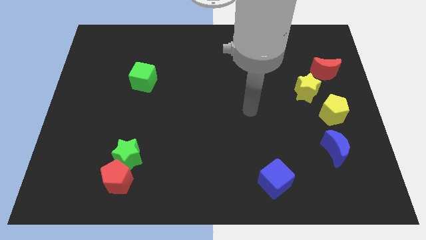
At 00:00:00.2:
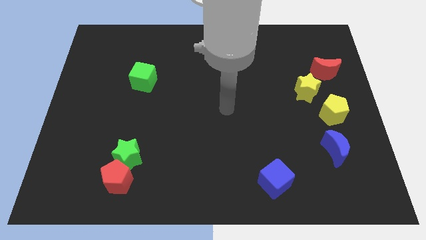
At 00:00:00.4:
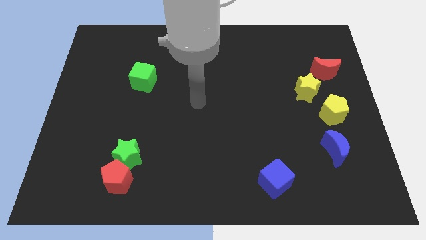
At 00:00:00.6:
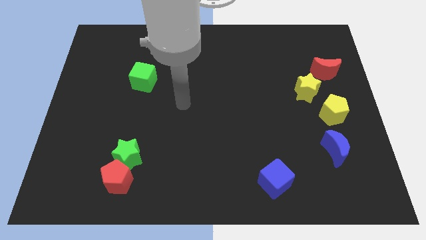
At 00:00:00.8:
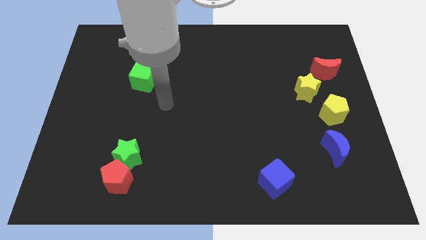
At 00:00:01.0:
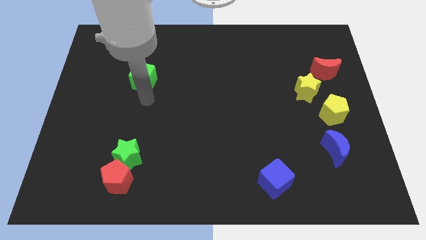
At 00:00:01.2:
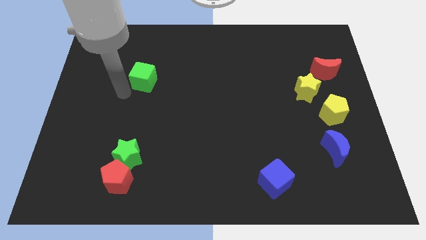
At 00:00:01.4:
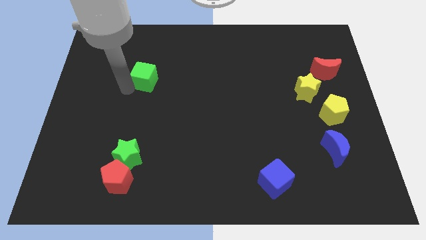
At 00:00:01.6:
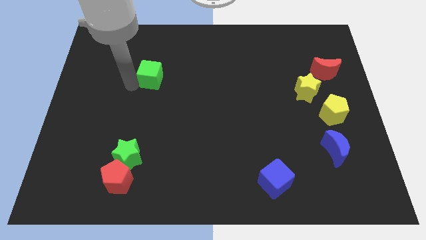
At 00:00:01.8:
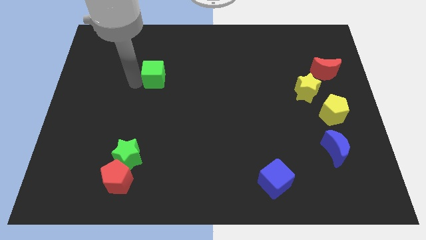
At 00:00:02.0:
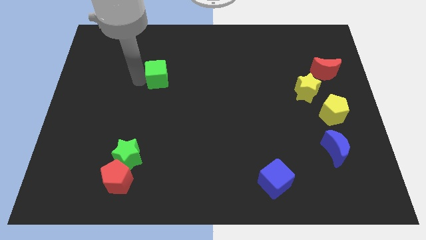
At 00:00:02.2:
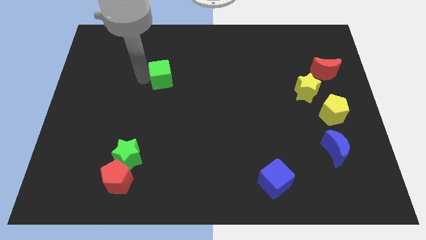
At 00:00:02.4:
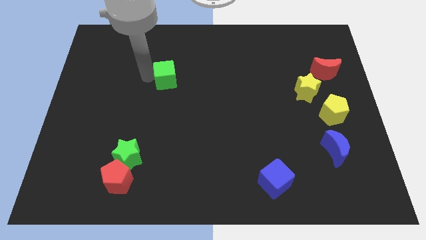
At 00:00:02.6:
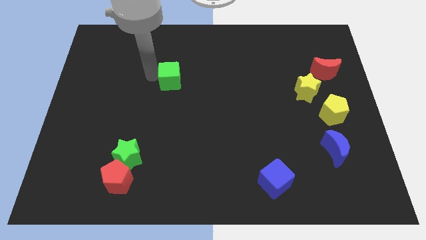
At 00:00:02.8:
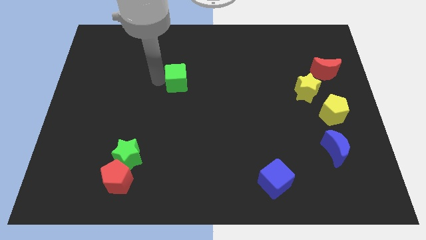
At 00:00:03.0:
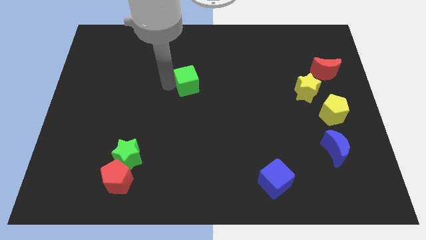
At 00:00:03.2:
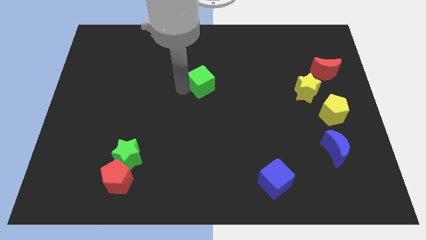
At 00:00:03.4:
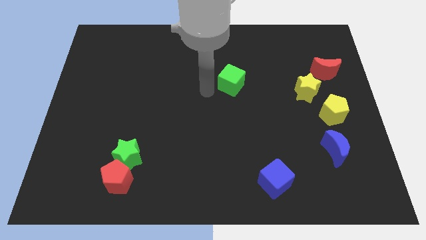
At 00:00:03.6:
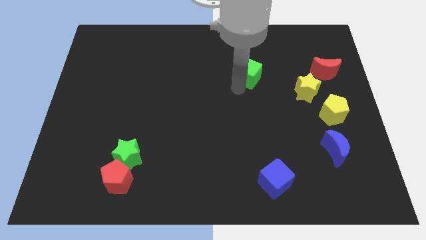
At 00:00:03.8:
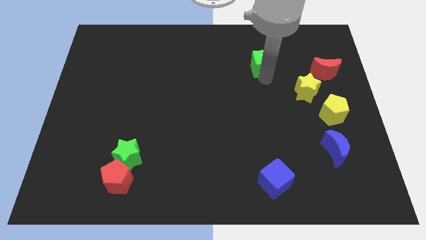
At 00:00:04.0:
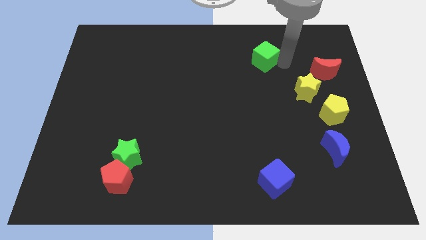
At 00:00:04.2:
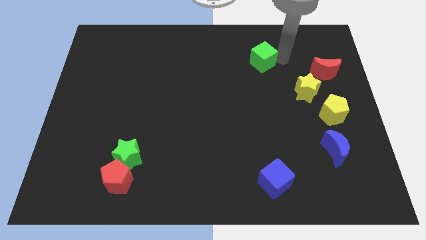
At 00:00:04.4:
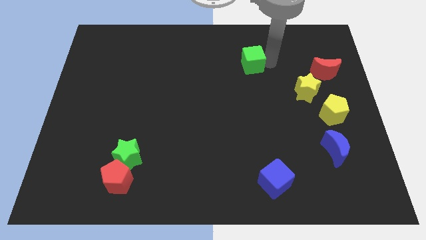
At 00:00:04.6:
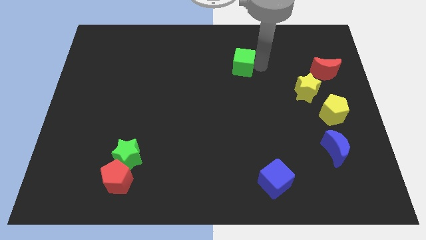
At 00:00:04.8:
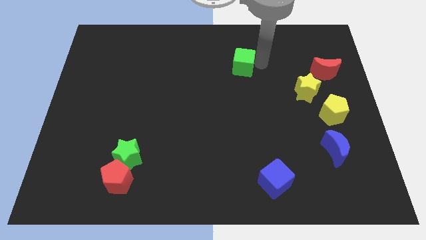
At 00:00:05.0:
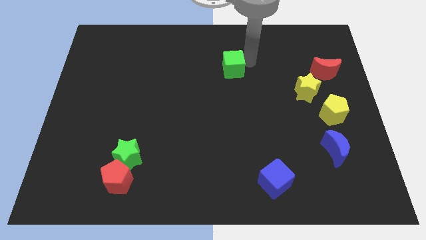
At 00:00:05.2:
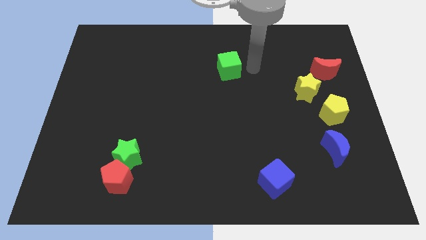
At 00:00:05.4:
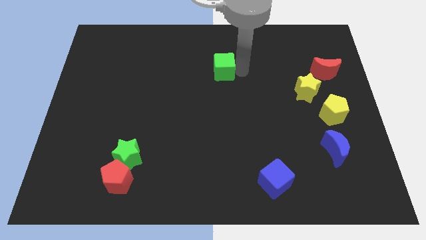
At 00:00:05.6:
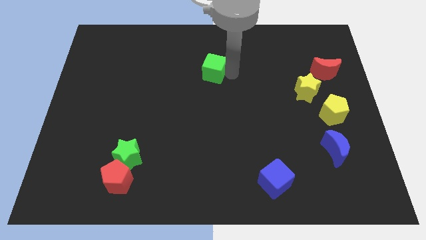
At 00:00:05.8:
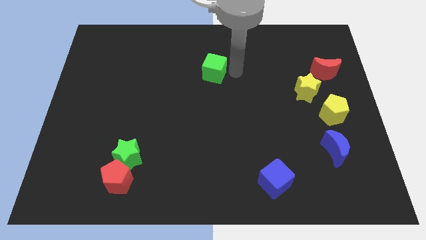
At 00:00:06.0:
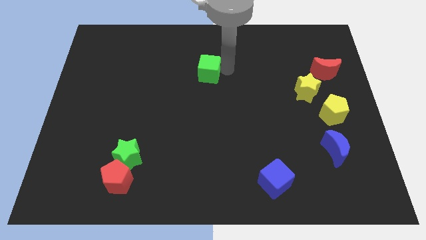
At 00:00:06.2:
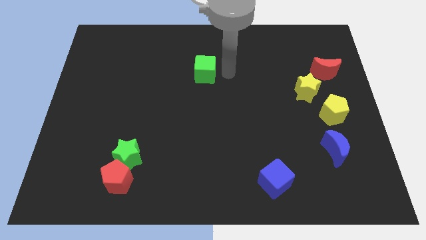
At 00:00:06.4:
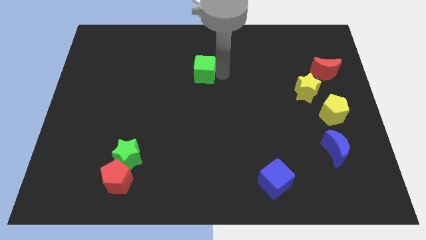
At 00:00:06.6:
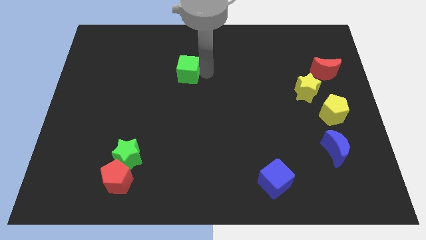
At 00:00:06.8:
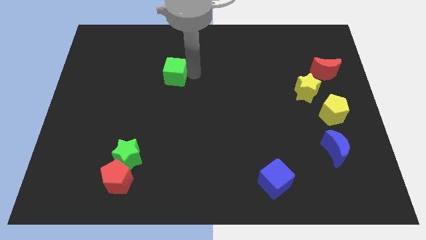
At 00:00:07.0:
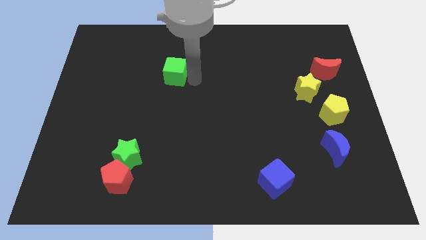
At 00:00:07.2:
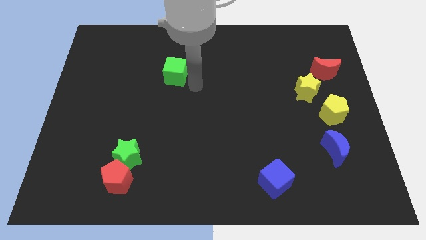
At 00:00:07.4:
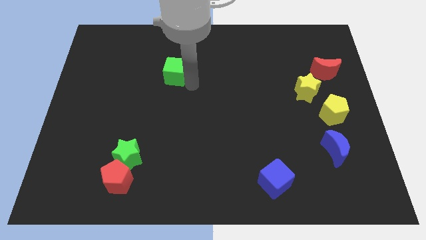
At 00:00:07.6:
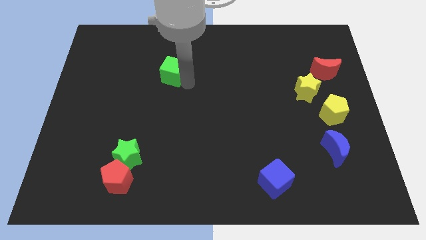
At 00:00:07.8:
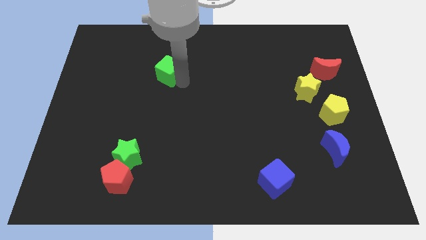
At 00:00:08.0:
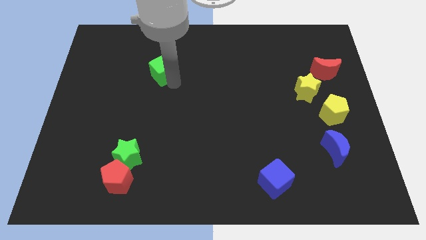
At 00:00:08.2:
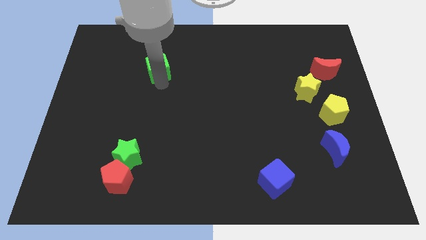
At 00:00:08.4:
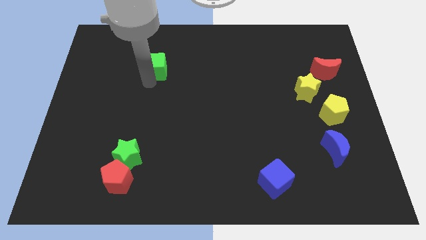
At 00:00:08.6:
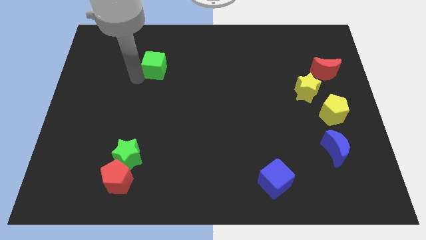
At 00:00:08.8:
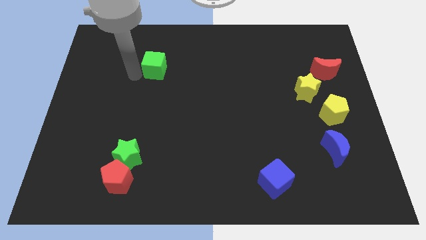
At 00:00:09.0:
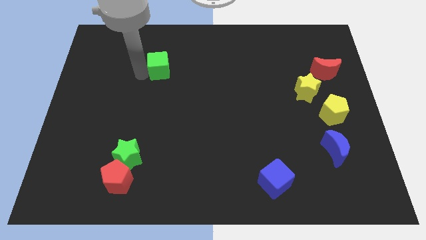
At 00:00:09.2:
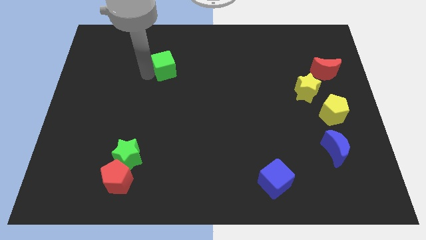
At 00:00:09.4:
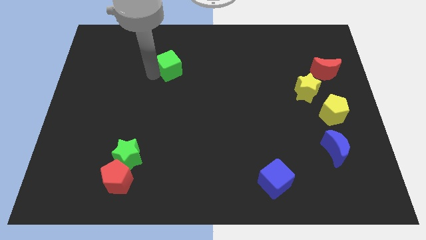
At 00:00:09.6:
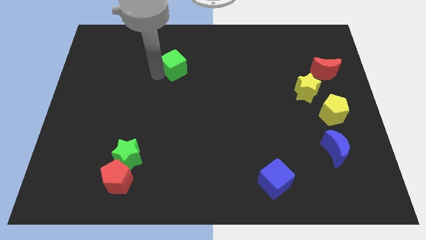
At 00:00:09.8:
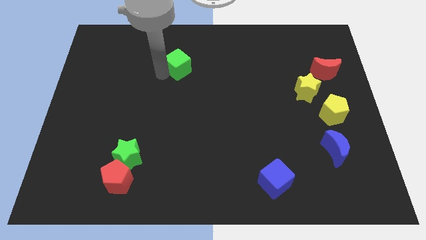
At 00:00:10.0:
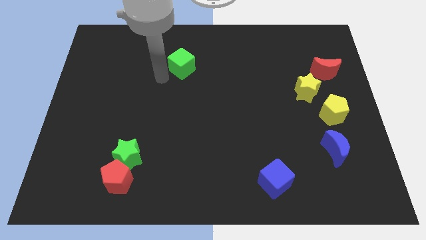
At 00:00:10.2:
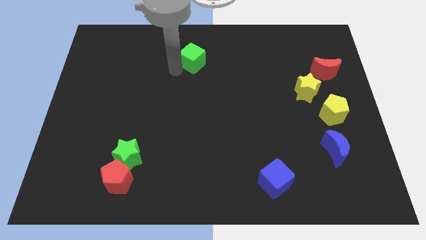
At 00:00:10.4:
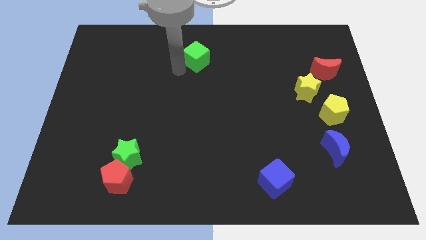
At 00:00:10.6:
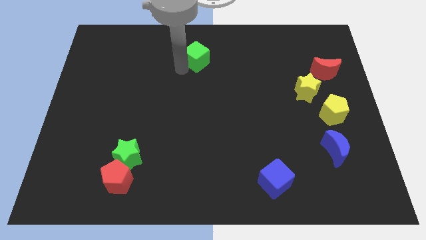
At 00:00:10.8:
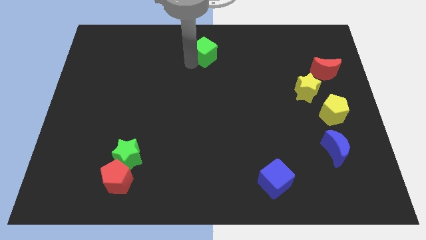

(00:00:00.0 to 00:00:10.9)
push the green cube to the towards your base

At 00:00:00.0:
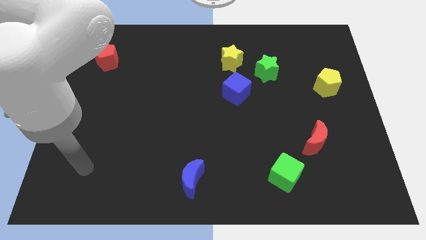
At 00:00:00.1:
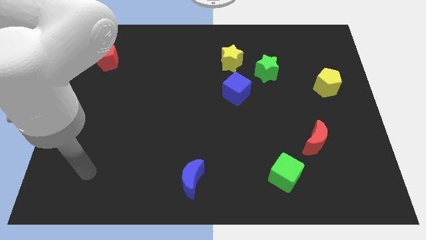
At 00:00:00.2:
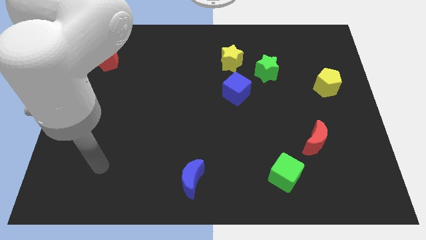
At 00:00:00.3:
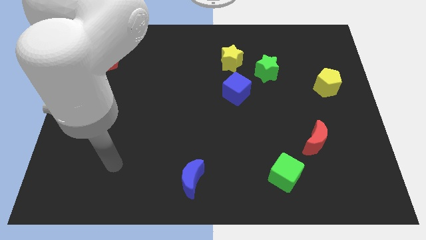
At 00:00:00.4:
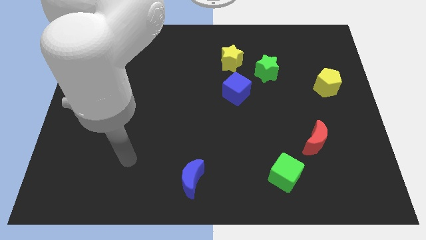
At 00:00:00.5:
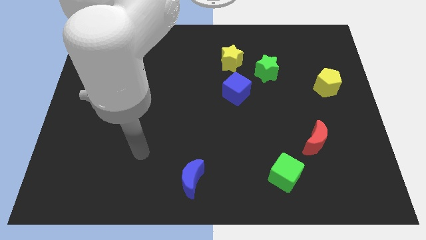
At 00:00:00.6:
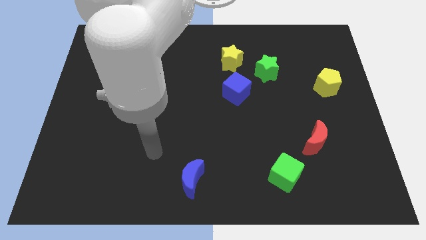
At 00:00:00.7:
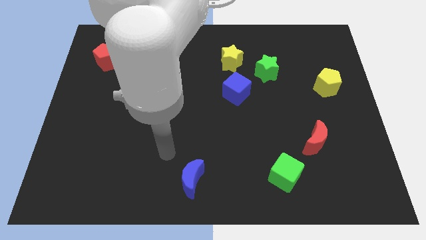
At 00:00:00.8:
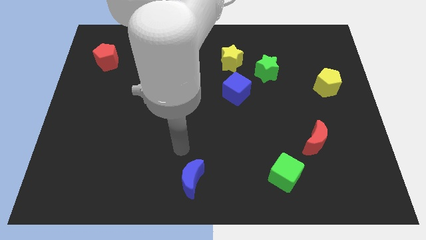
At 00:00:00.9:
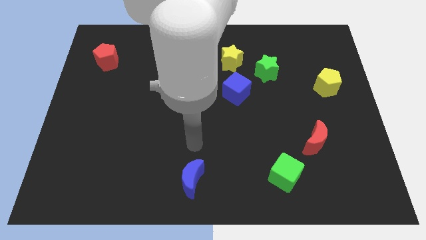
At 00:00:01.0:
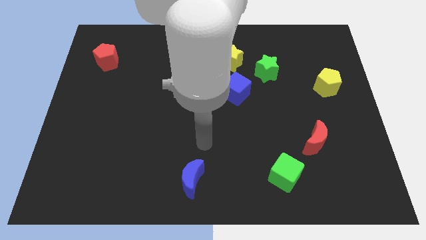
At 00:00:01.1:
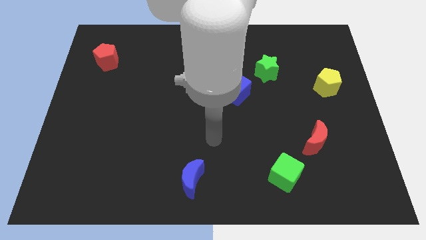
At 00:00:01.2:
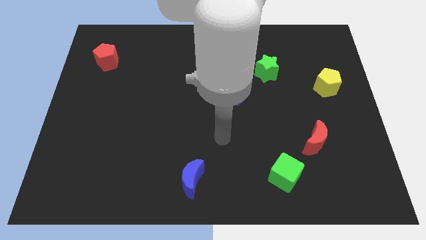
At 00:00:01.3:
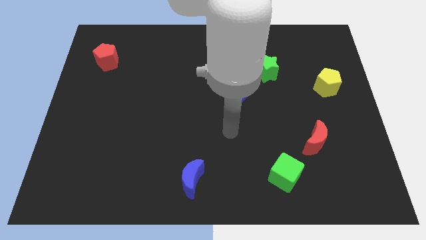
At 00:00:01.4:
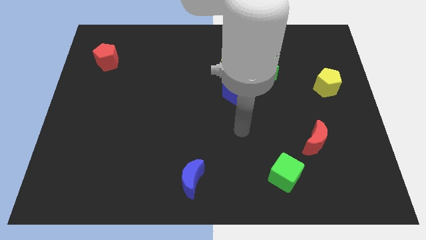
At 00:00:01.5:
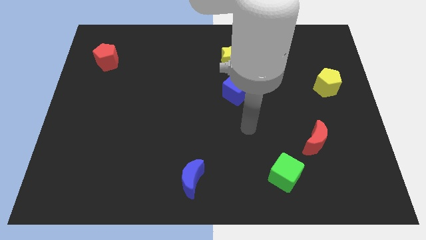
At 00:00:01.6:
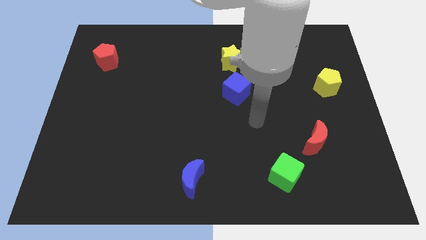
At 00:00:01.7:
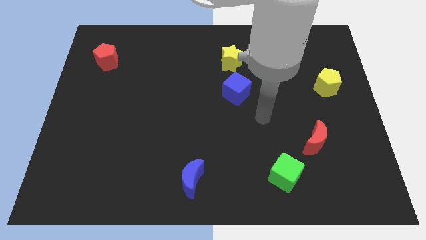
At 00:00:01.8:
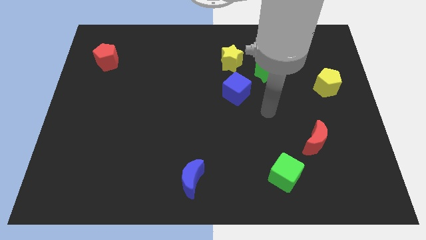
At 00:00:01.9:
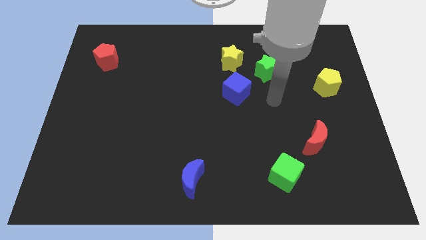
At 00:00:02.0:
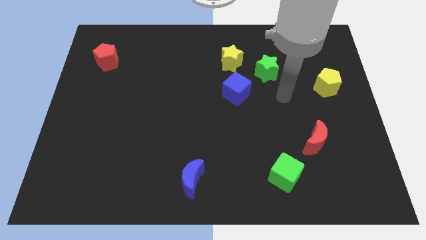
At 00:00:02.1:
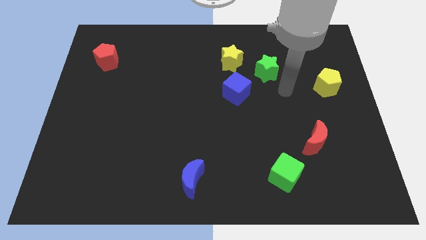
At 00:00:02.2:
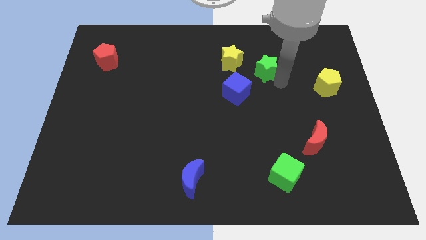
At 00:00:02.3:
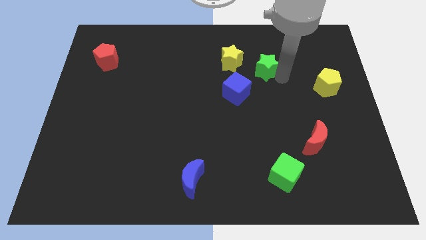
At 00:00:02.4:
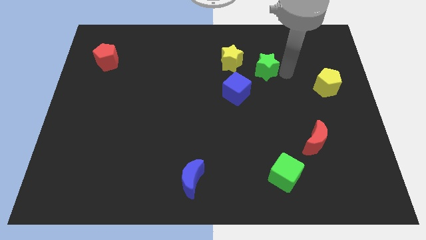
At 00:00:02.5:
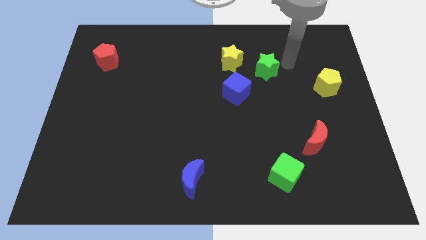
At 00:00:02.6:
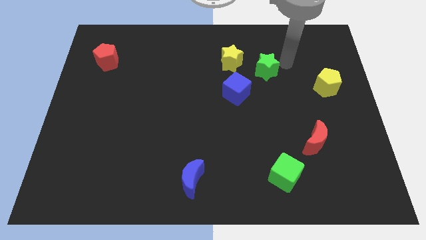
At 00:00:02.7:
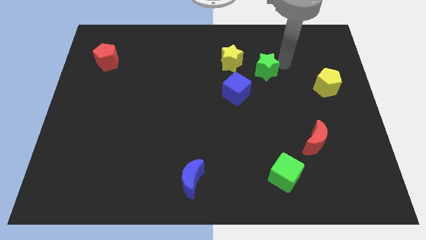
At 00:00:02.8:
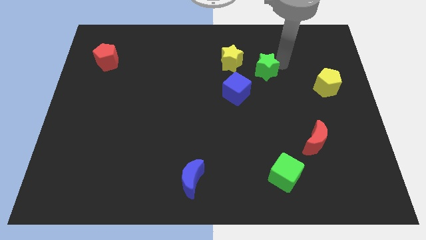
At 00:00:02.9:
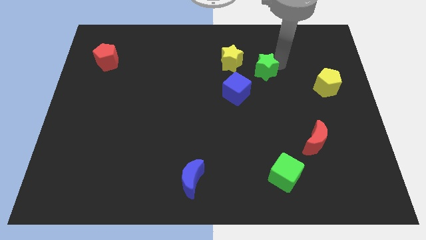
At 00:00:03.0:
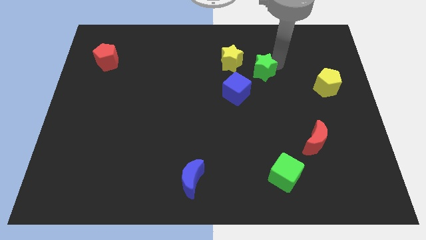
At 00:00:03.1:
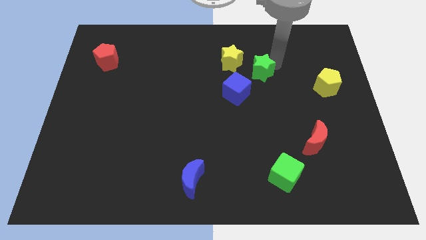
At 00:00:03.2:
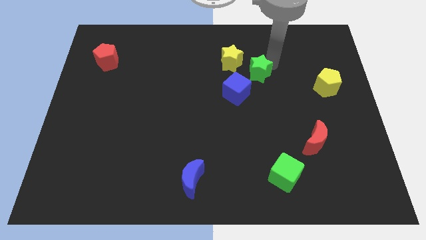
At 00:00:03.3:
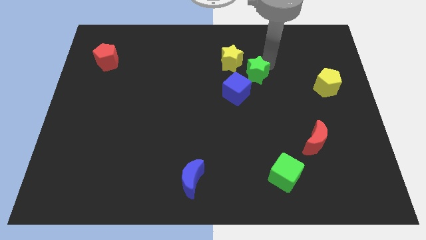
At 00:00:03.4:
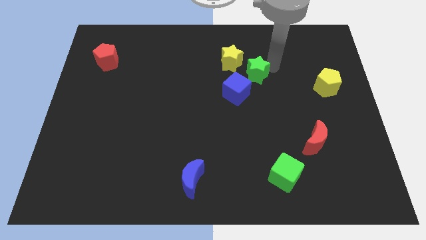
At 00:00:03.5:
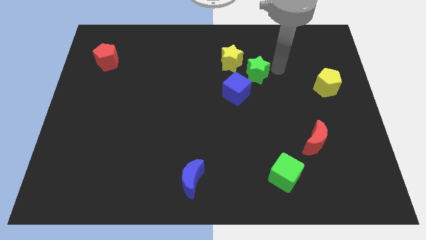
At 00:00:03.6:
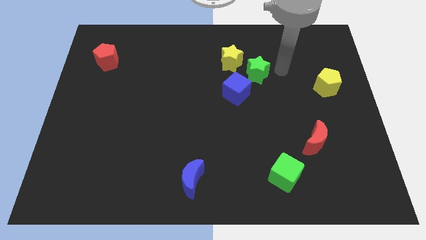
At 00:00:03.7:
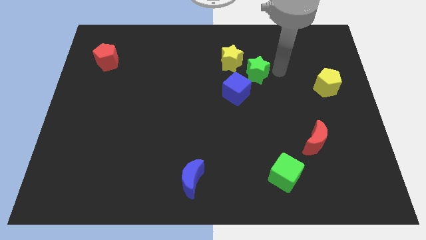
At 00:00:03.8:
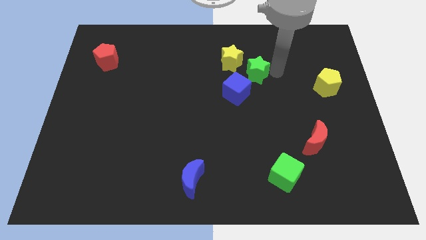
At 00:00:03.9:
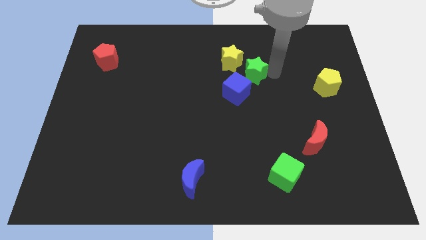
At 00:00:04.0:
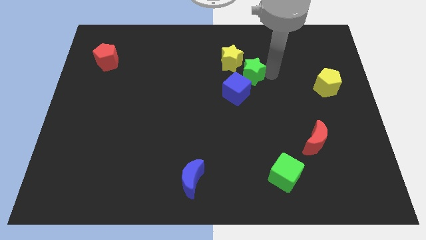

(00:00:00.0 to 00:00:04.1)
move the green star to the middle
